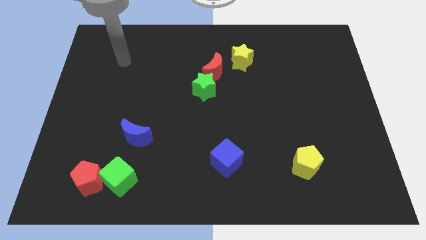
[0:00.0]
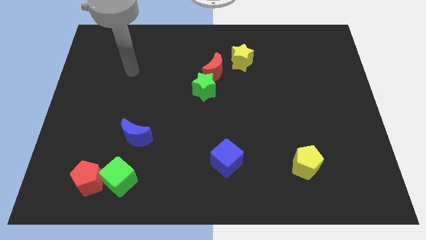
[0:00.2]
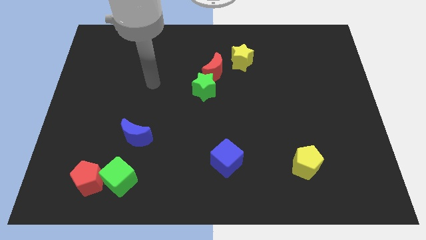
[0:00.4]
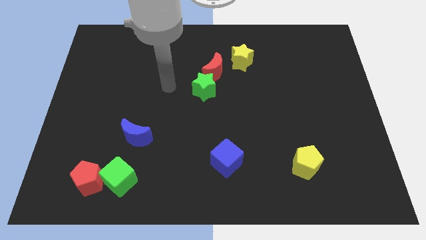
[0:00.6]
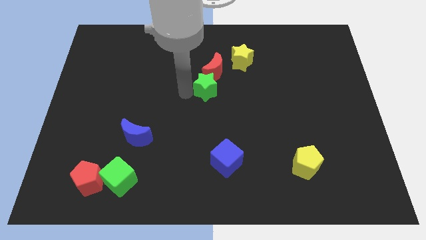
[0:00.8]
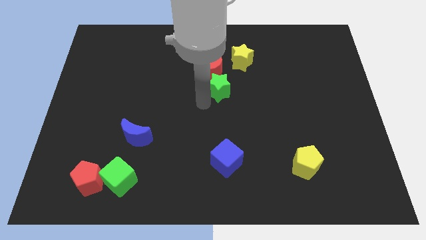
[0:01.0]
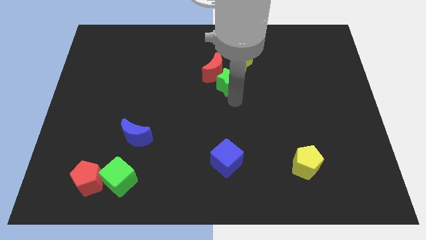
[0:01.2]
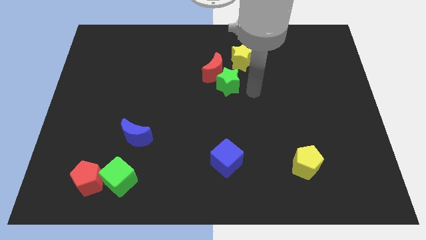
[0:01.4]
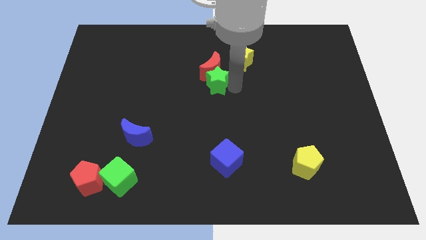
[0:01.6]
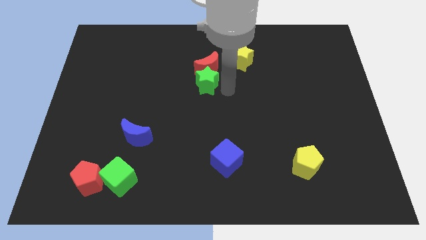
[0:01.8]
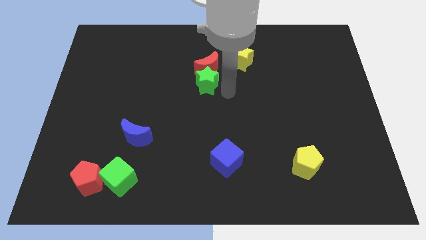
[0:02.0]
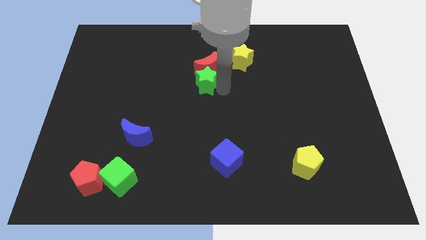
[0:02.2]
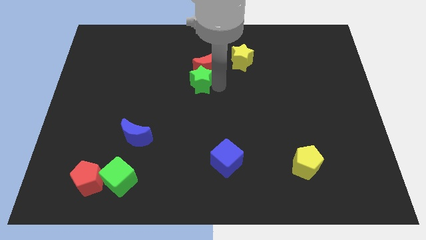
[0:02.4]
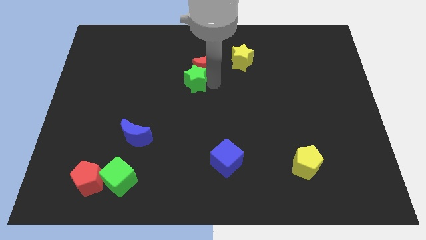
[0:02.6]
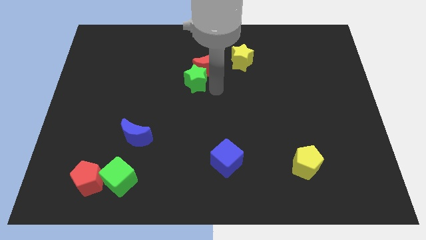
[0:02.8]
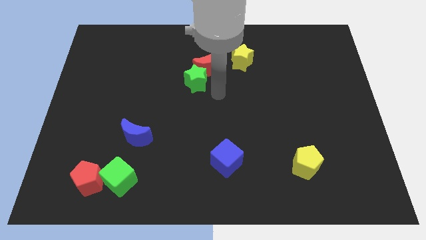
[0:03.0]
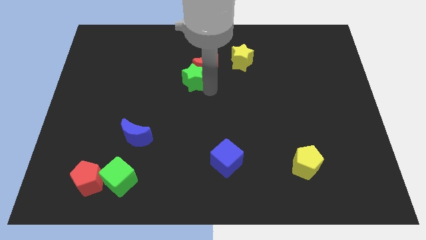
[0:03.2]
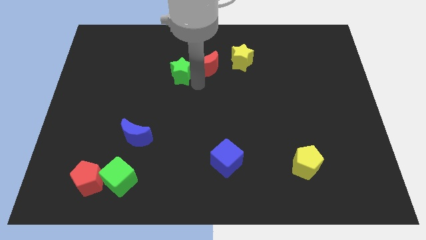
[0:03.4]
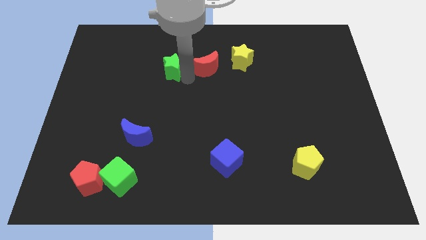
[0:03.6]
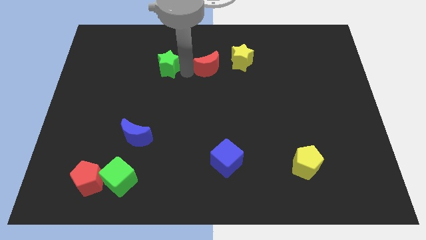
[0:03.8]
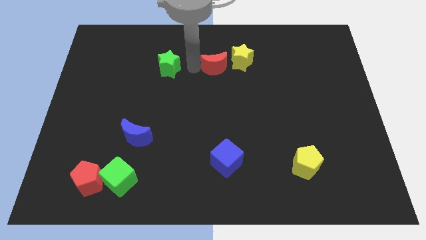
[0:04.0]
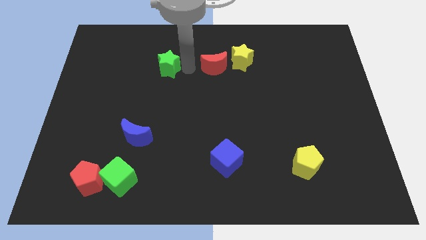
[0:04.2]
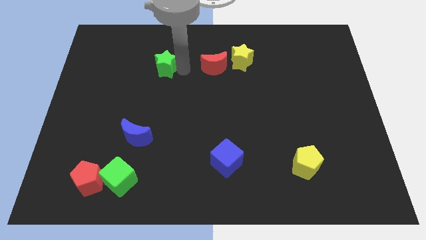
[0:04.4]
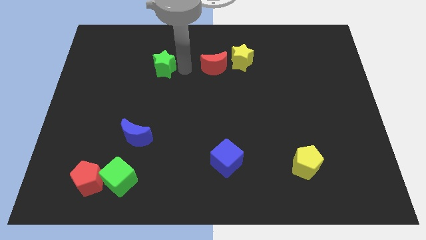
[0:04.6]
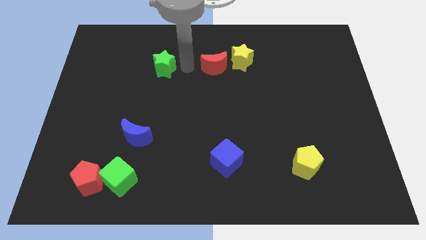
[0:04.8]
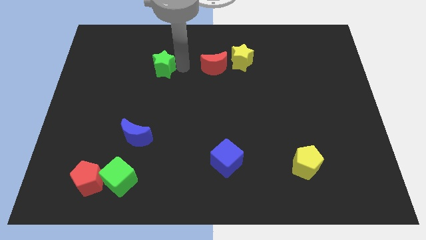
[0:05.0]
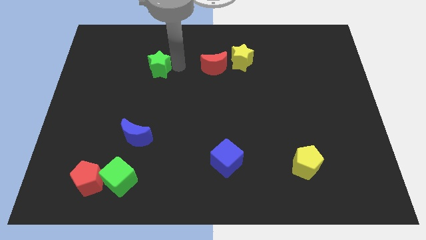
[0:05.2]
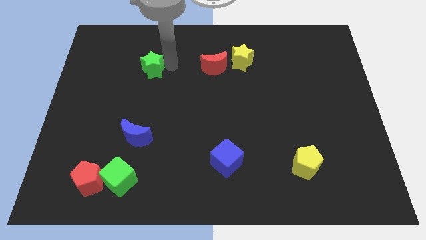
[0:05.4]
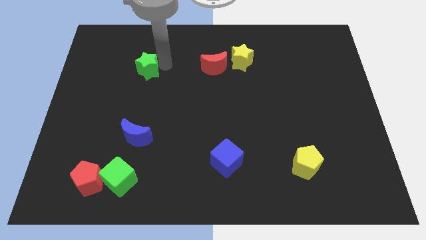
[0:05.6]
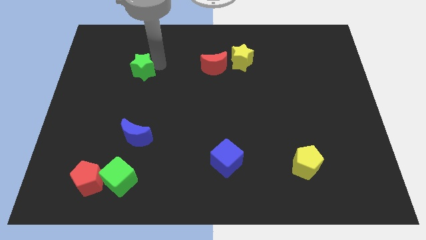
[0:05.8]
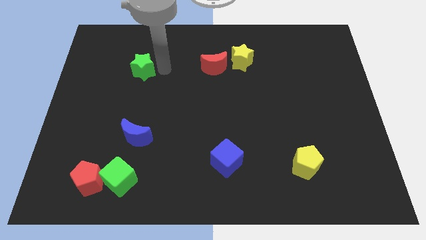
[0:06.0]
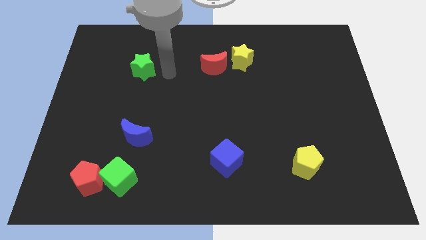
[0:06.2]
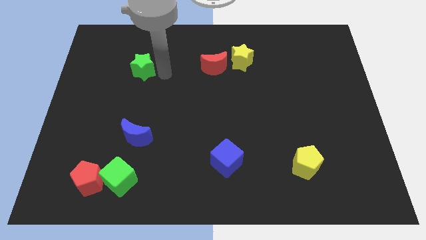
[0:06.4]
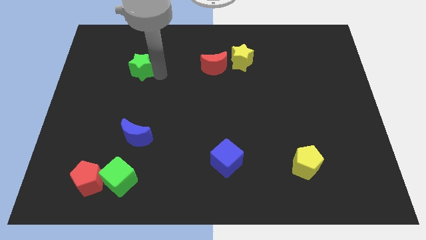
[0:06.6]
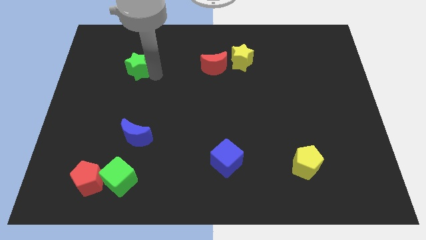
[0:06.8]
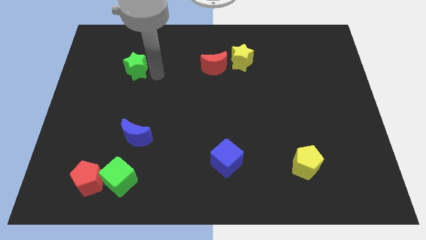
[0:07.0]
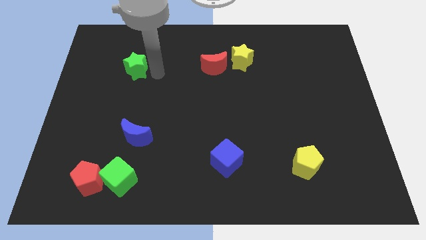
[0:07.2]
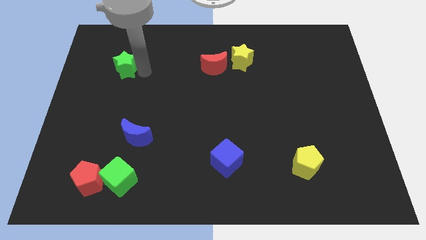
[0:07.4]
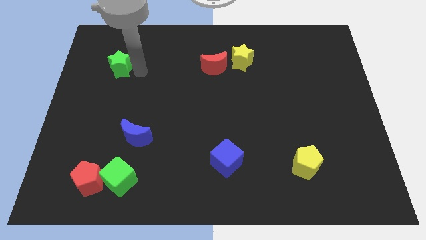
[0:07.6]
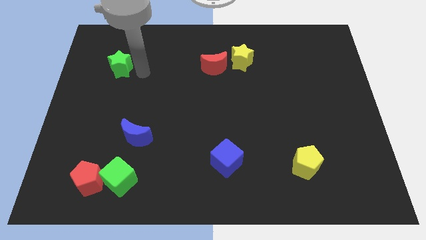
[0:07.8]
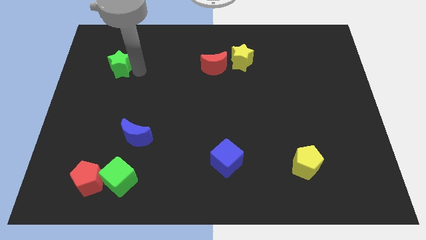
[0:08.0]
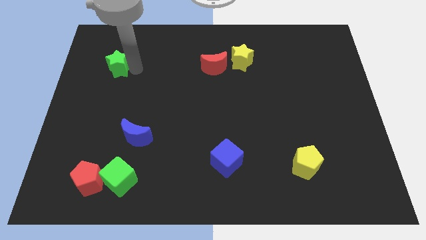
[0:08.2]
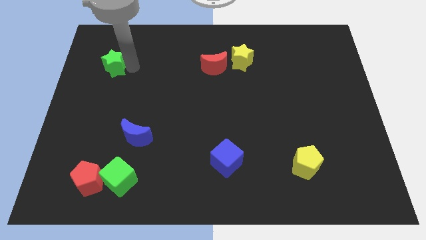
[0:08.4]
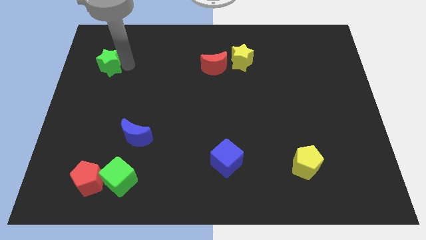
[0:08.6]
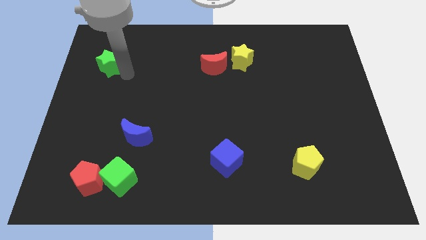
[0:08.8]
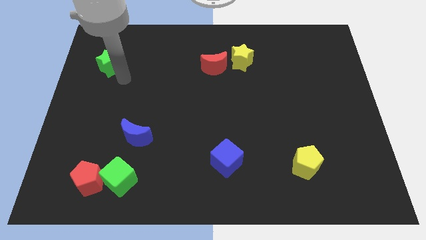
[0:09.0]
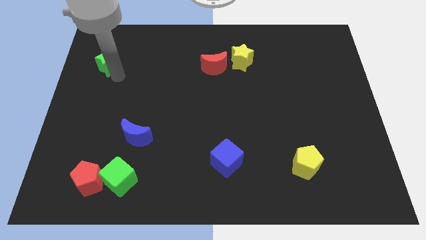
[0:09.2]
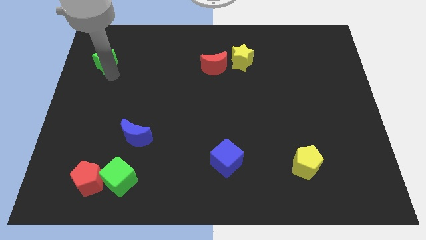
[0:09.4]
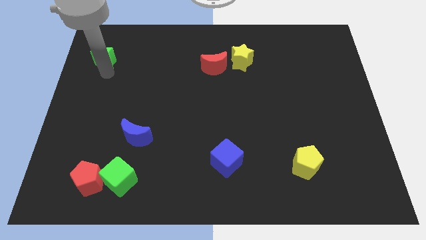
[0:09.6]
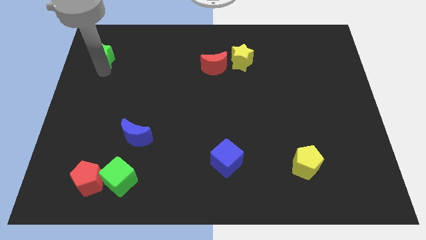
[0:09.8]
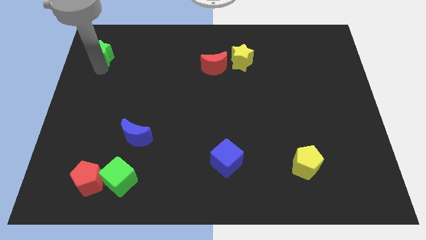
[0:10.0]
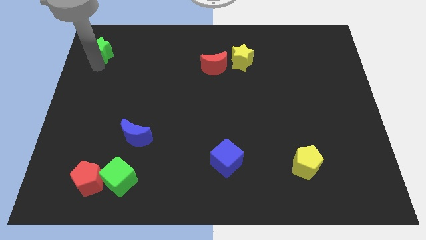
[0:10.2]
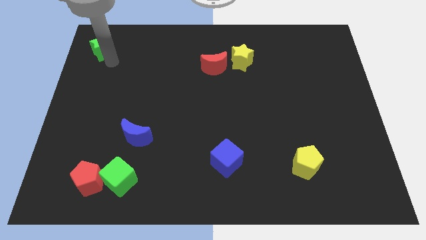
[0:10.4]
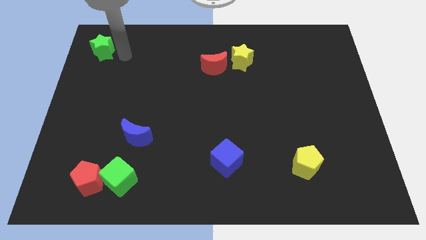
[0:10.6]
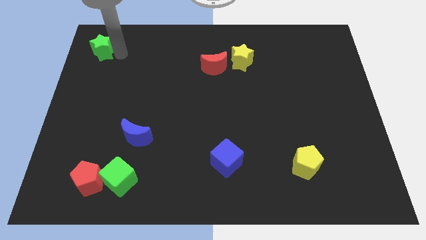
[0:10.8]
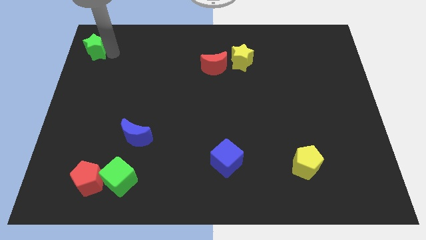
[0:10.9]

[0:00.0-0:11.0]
put the green star to the top left of the board

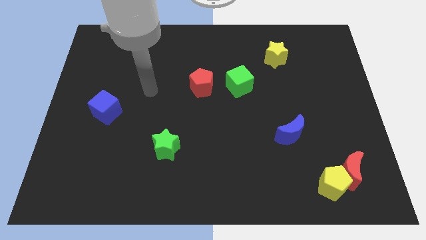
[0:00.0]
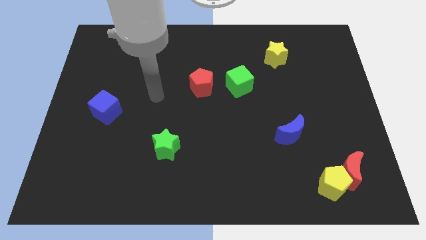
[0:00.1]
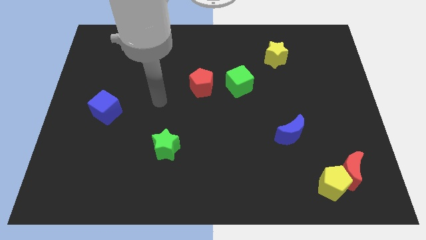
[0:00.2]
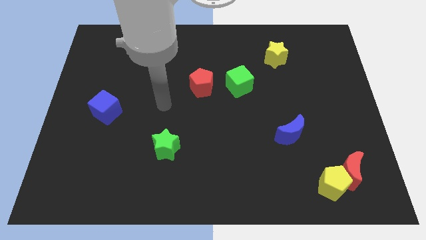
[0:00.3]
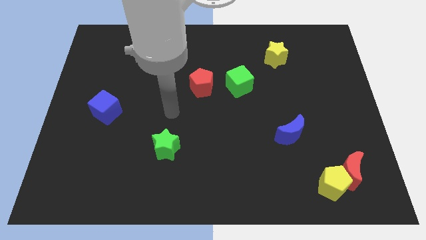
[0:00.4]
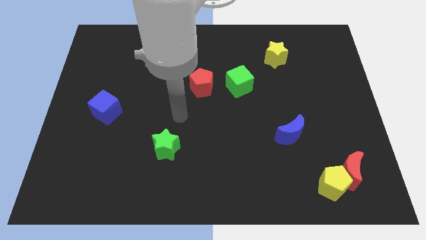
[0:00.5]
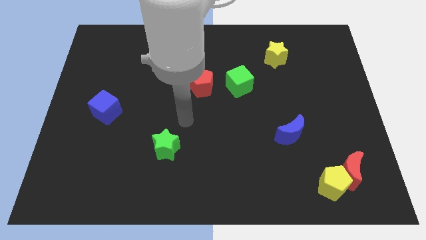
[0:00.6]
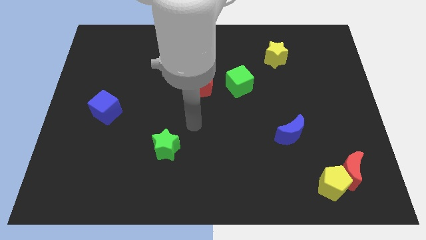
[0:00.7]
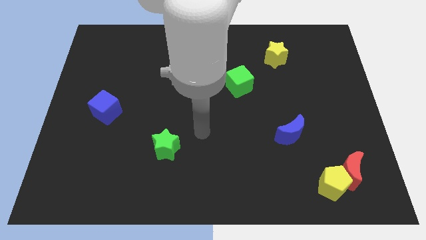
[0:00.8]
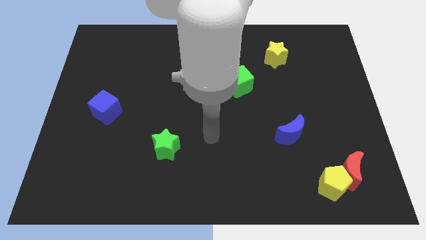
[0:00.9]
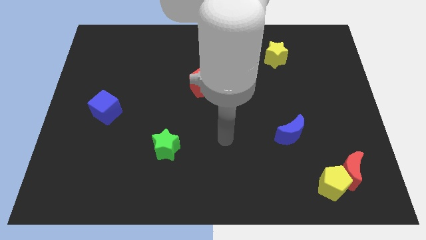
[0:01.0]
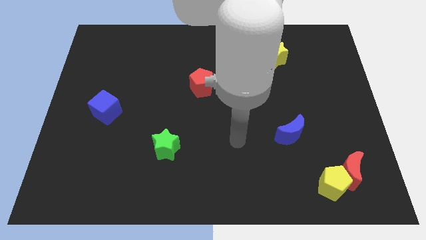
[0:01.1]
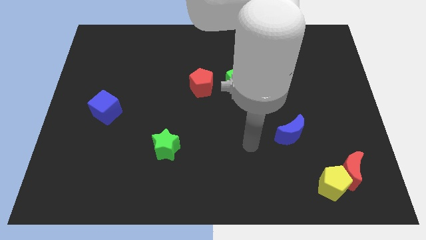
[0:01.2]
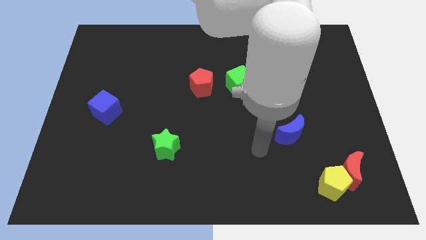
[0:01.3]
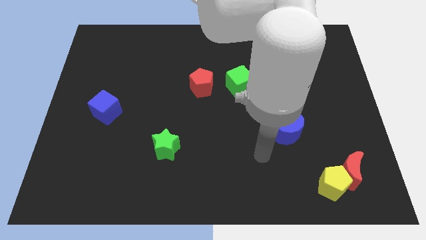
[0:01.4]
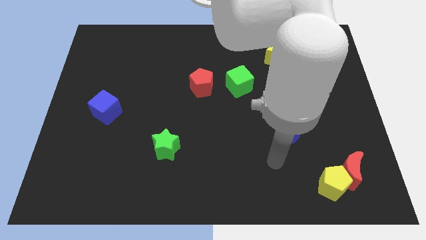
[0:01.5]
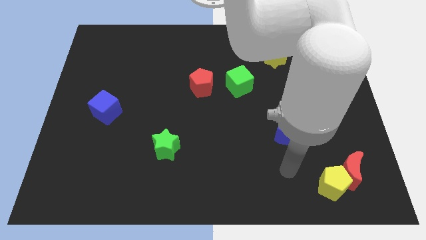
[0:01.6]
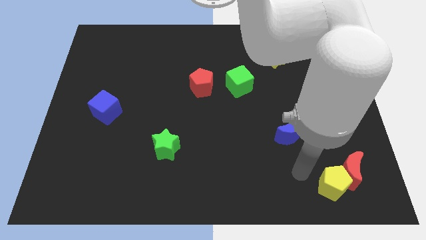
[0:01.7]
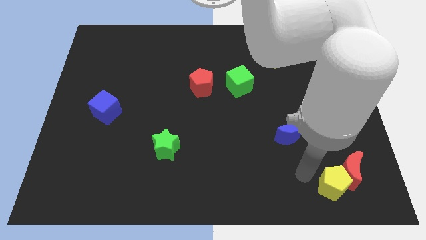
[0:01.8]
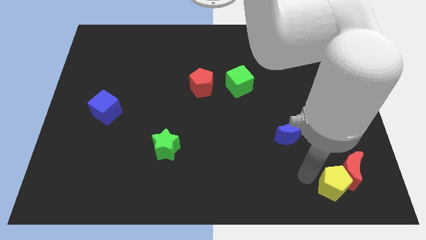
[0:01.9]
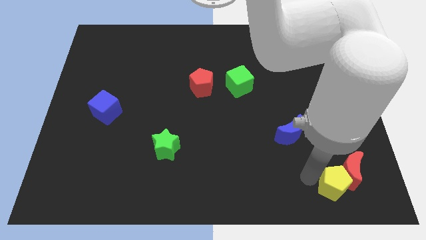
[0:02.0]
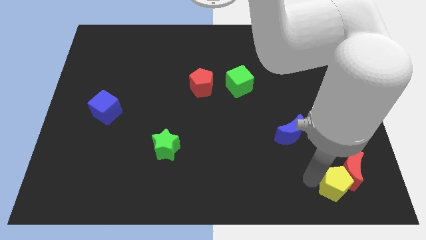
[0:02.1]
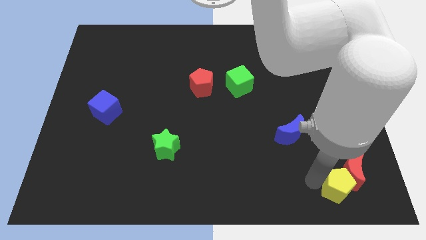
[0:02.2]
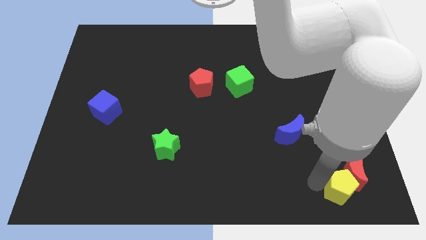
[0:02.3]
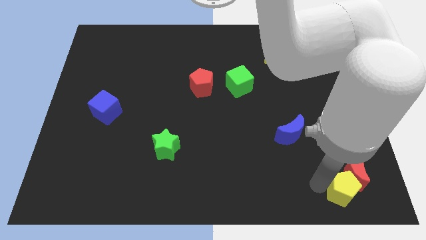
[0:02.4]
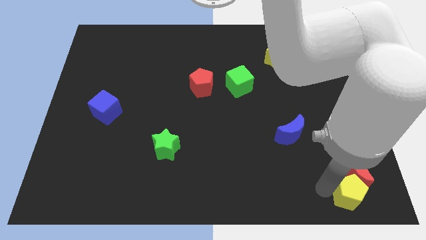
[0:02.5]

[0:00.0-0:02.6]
push the yellow pentagon to the bottom right corner
